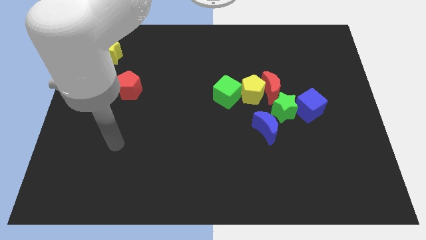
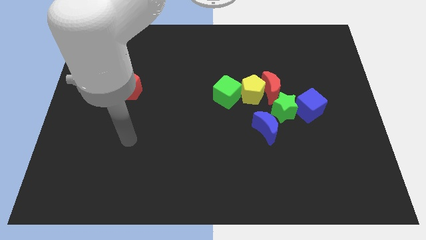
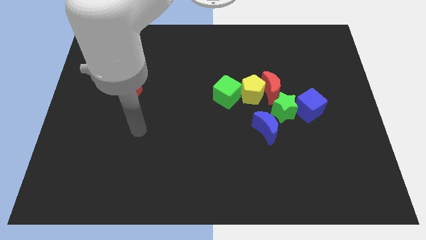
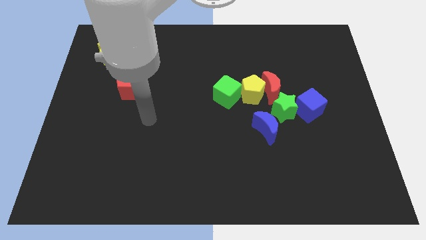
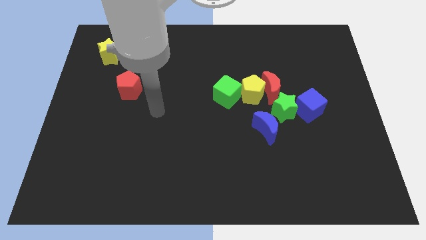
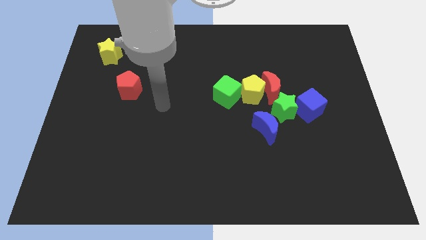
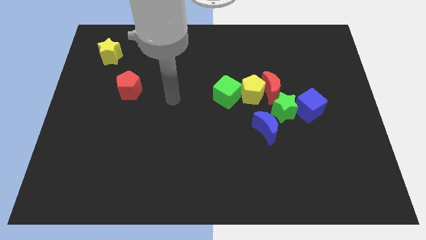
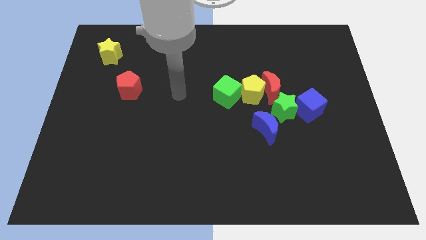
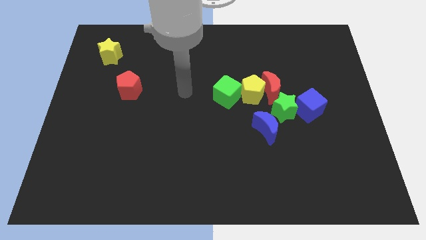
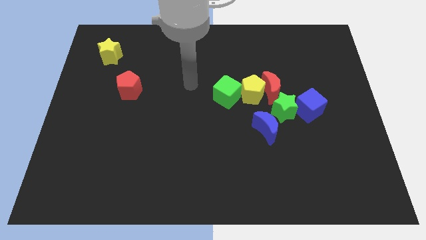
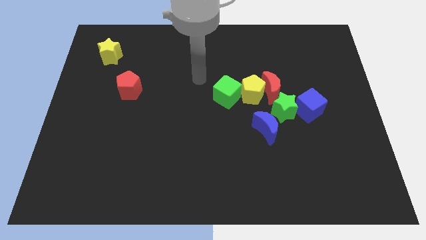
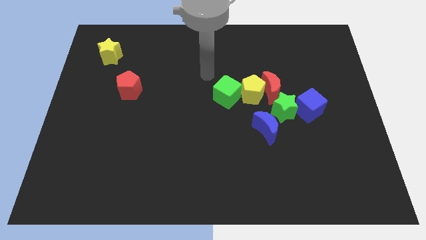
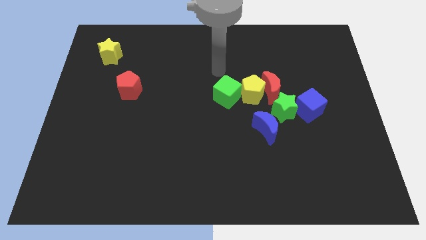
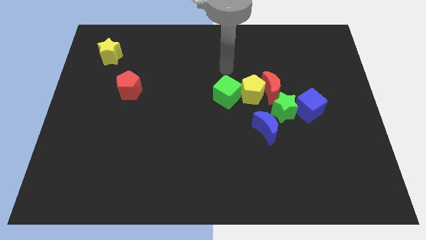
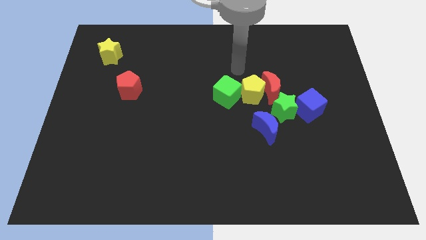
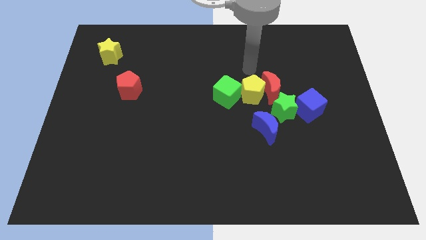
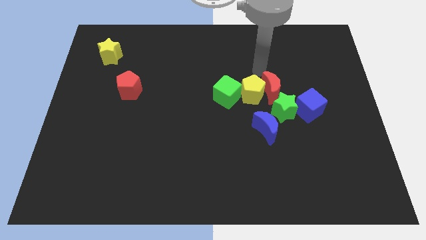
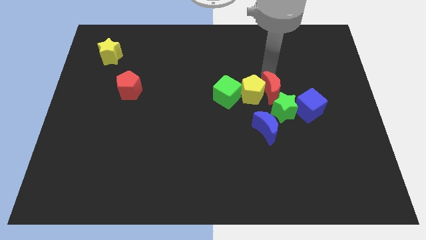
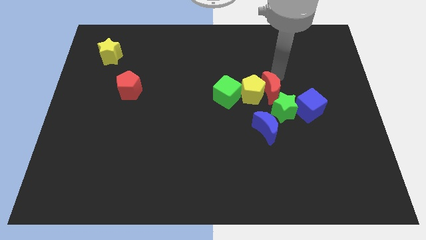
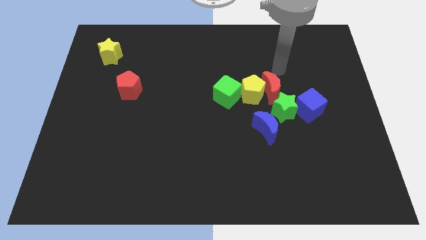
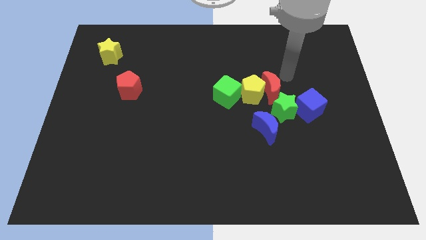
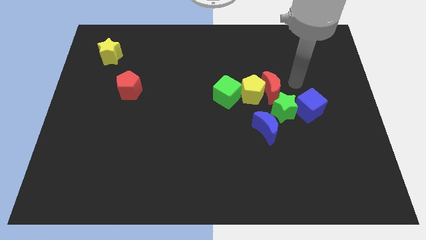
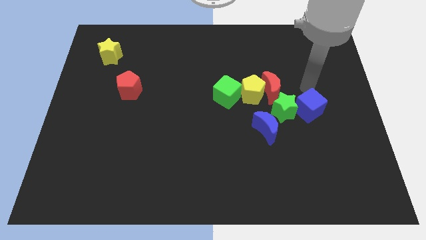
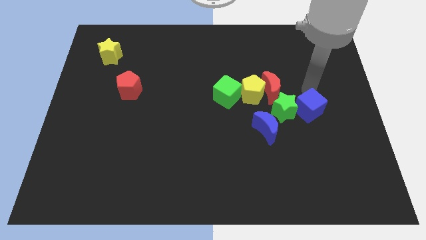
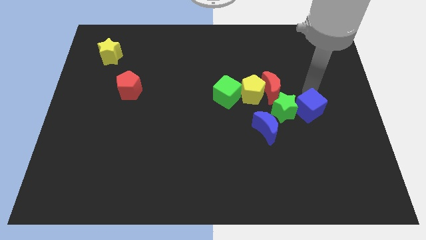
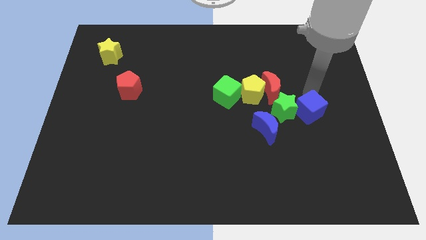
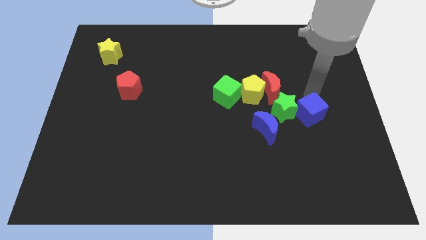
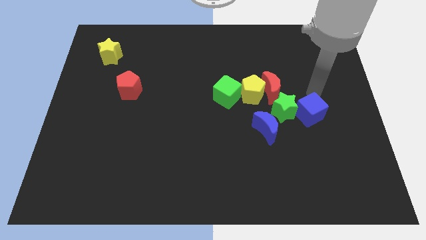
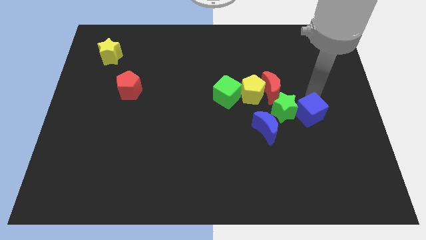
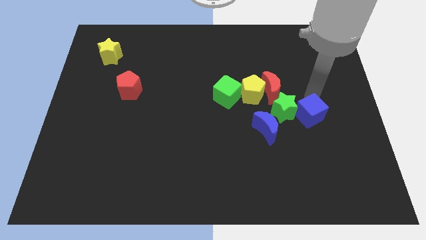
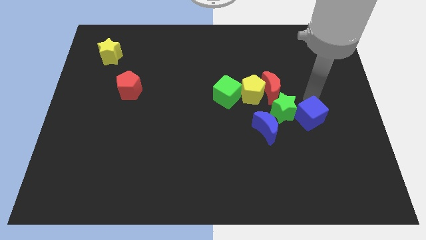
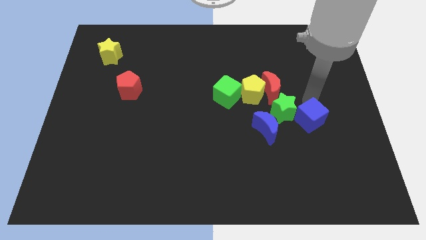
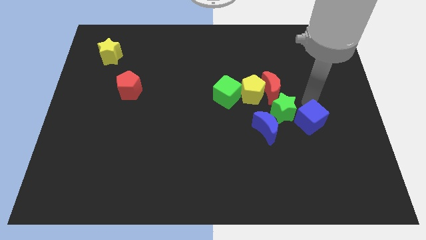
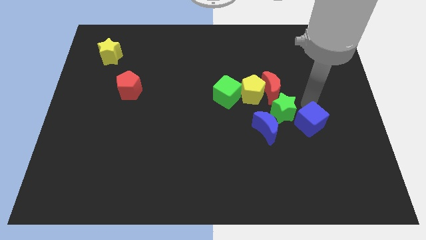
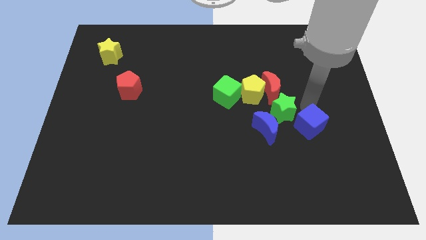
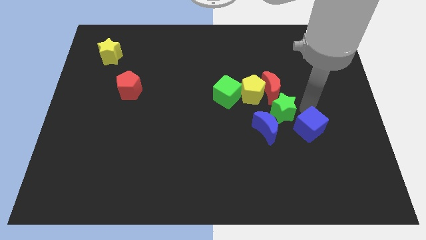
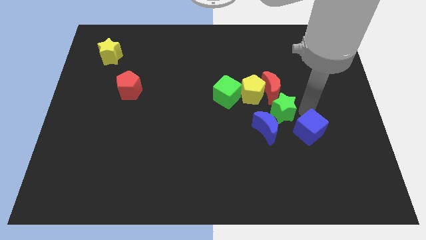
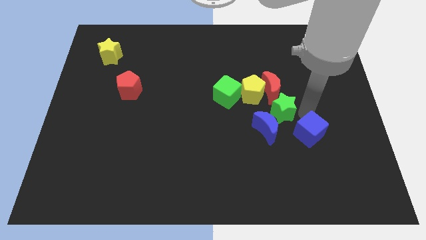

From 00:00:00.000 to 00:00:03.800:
move the blue cube somewhat downwards

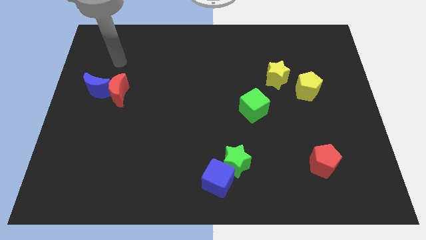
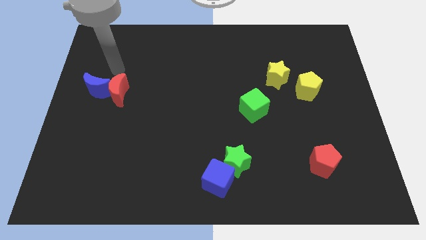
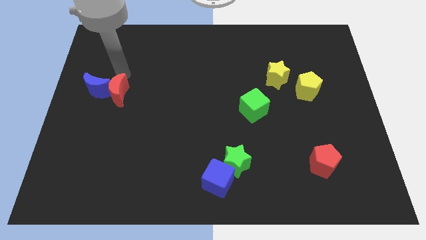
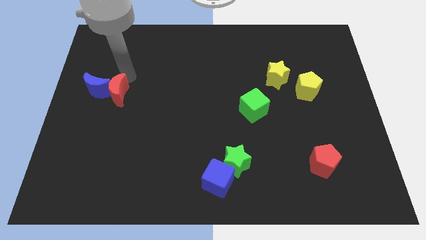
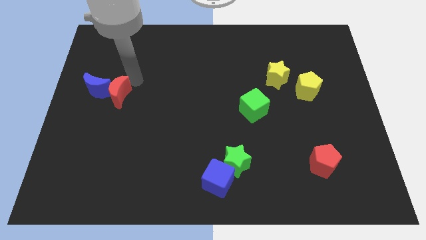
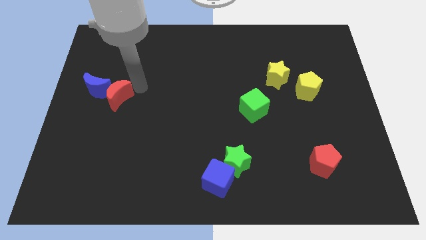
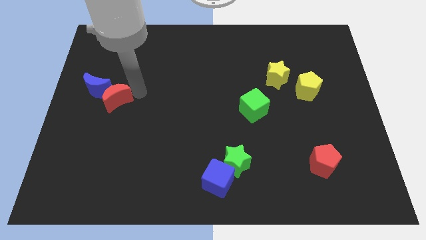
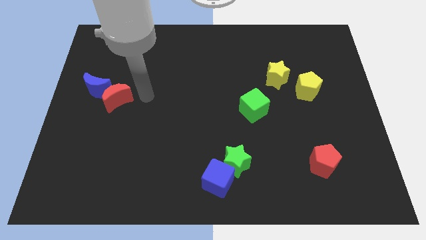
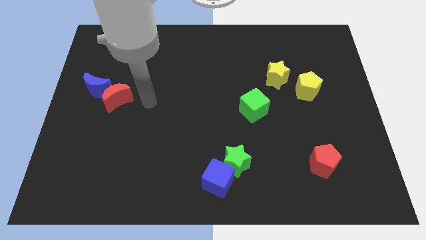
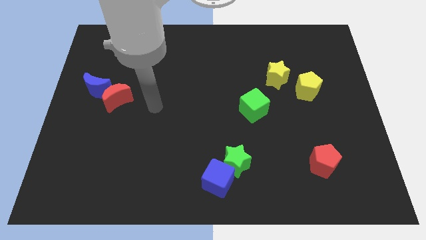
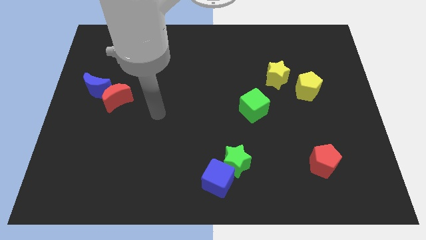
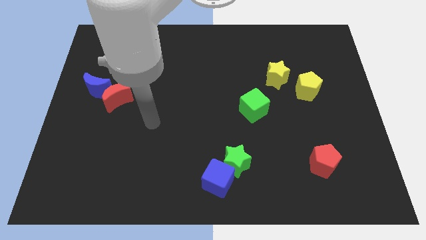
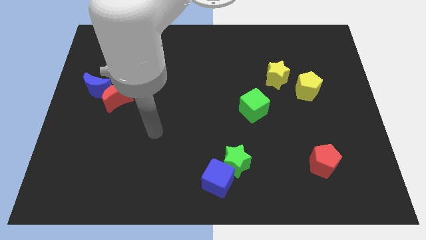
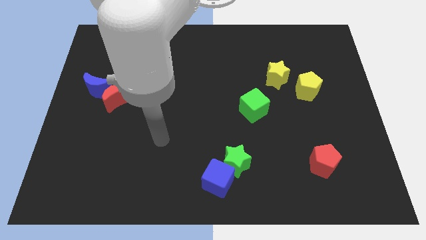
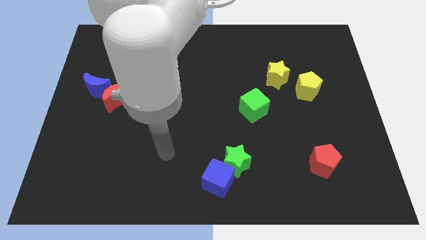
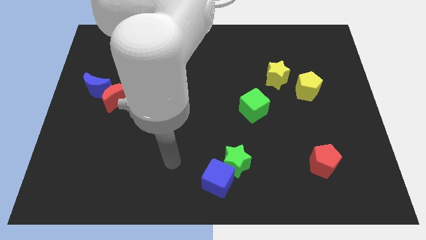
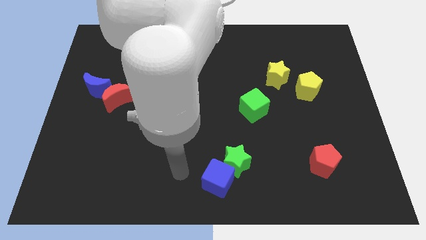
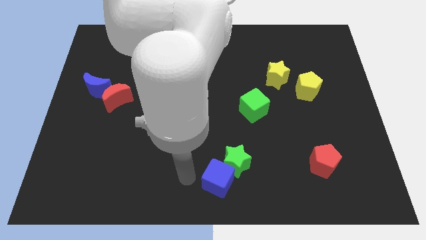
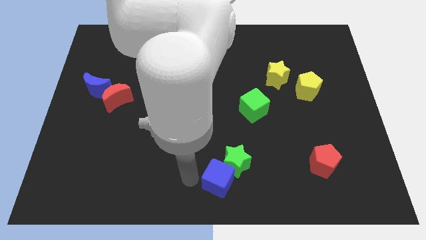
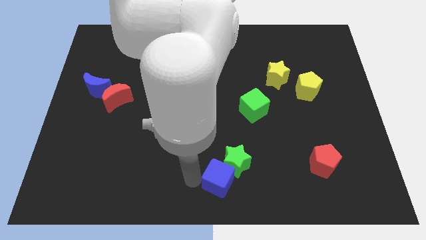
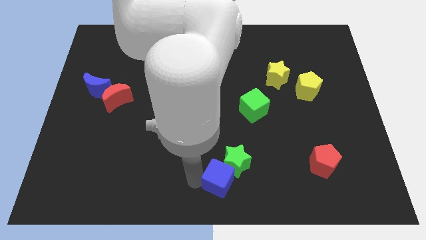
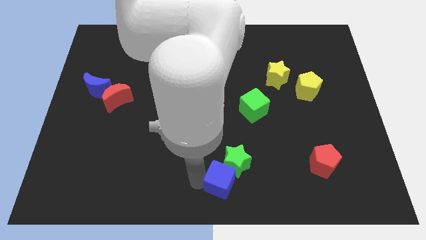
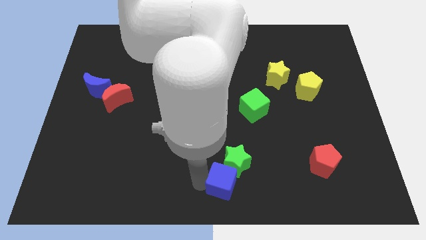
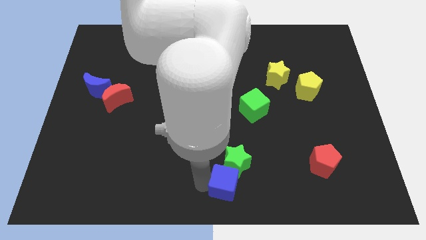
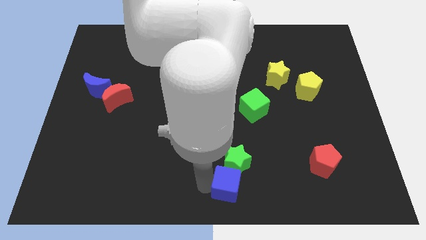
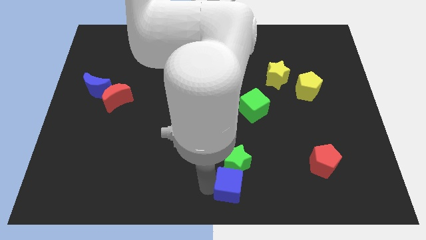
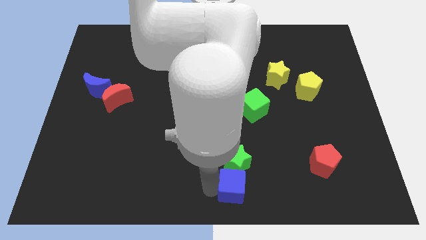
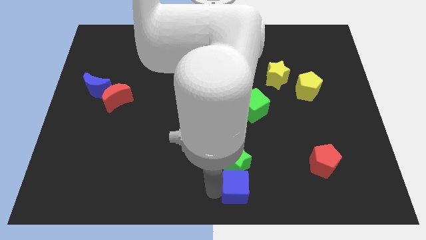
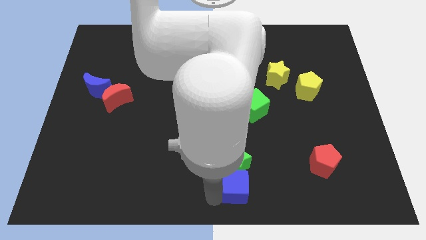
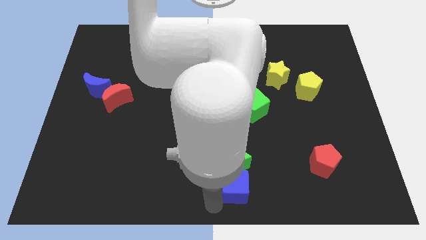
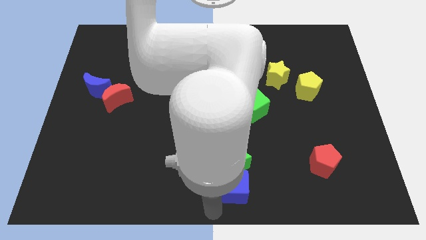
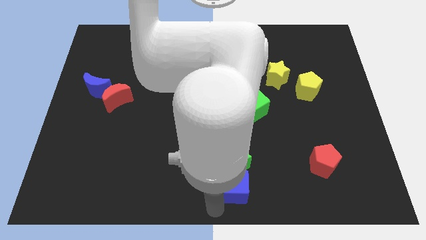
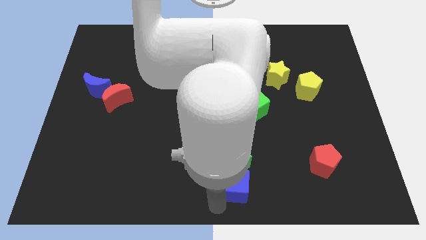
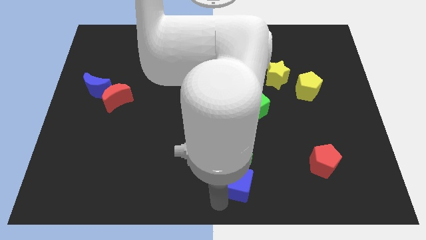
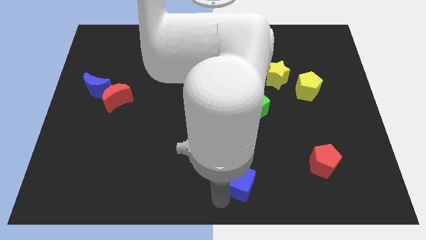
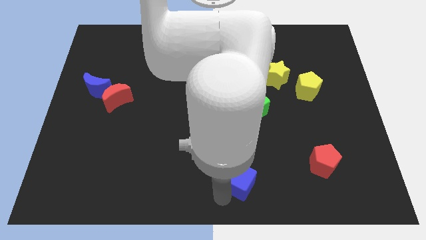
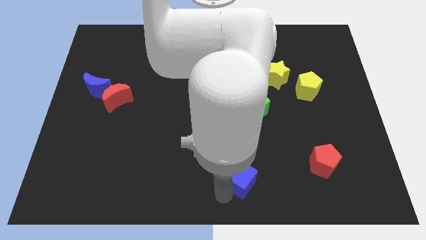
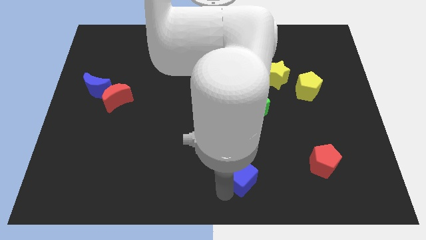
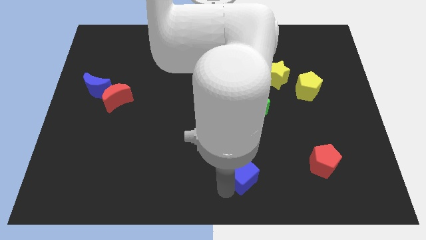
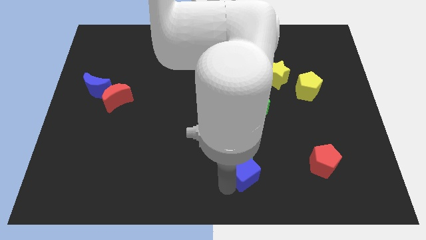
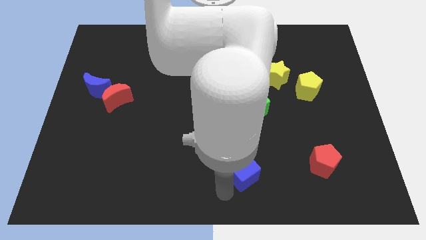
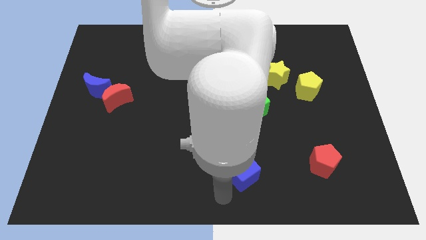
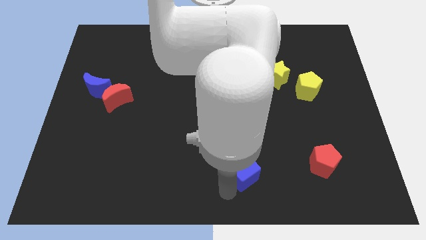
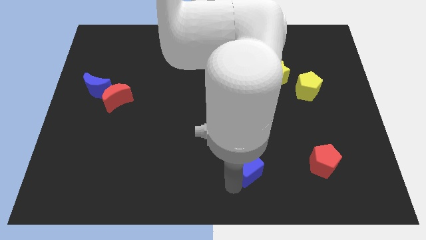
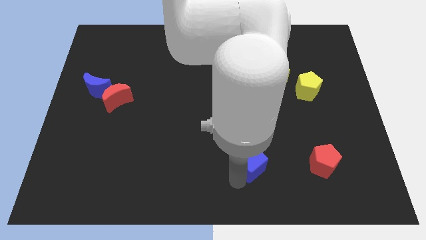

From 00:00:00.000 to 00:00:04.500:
move the blue cube a little bit upwards and then to the right
